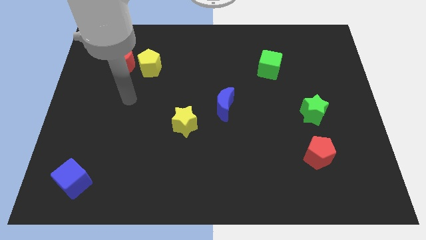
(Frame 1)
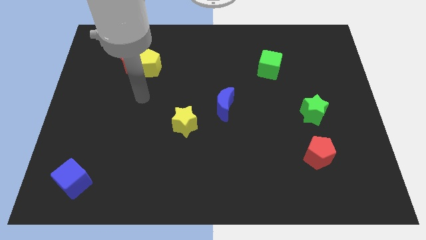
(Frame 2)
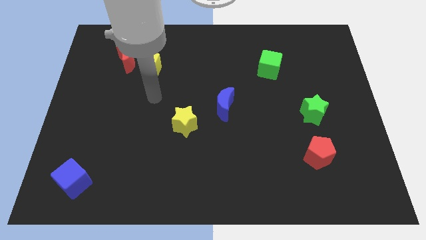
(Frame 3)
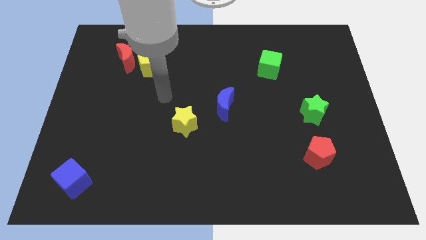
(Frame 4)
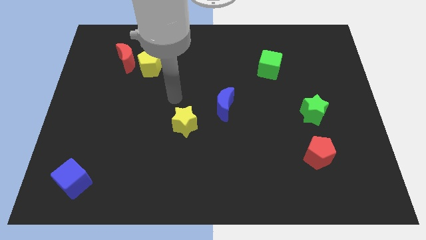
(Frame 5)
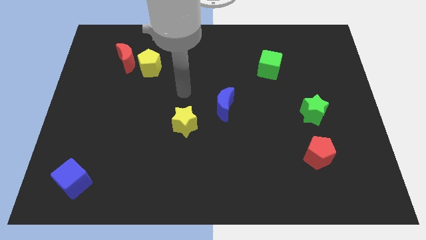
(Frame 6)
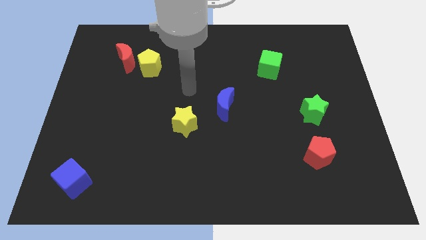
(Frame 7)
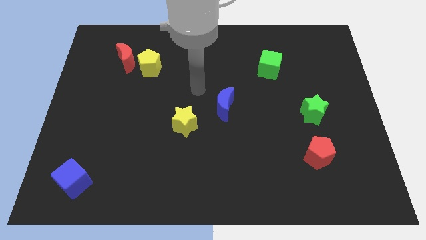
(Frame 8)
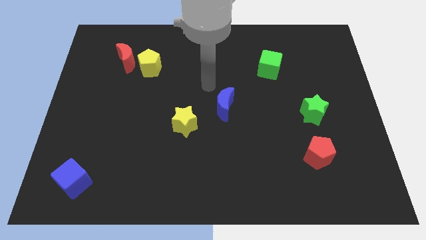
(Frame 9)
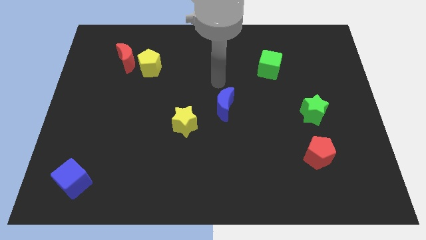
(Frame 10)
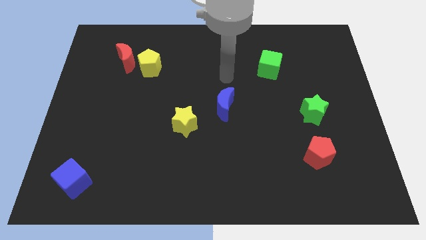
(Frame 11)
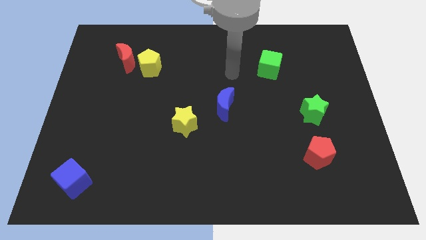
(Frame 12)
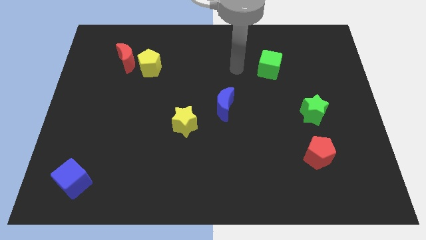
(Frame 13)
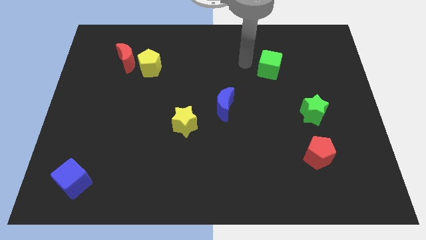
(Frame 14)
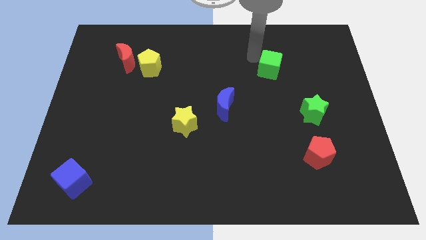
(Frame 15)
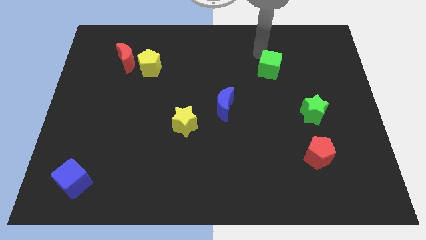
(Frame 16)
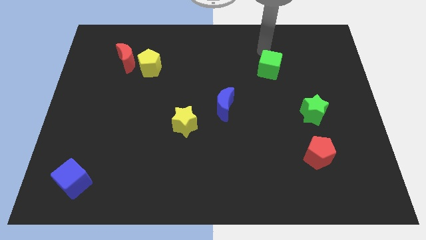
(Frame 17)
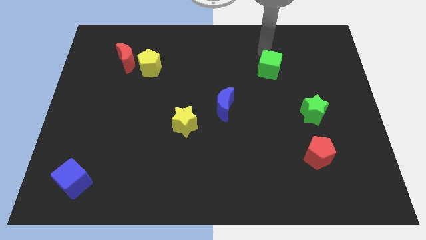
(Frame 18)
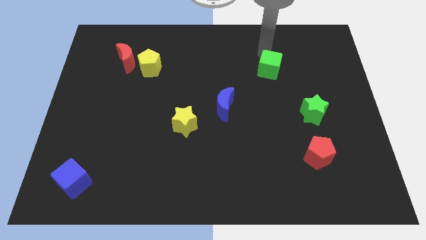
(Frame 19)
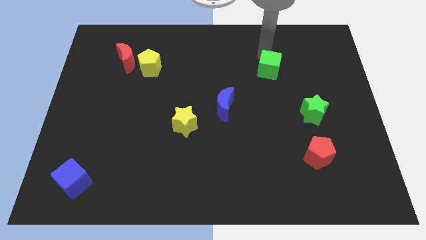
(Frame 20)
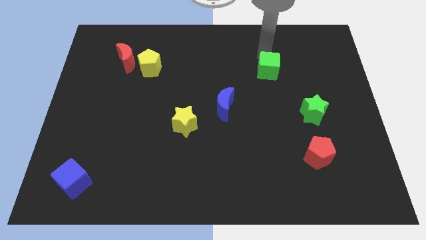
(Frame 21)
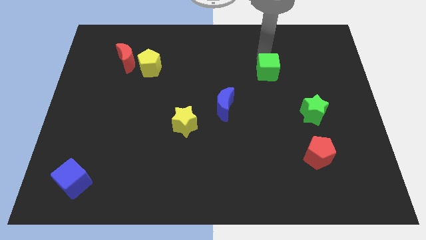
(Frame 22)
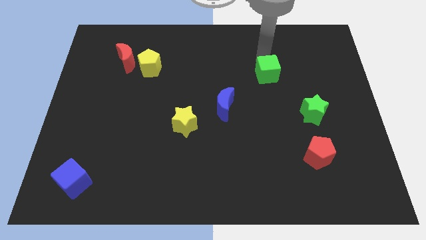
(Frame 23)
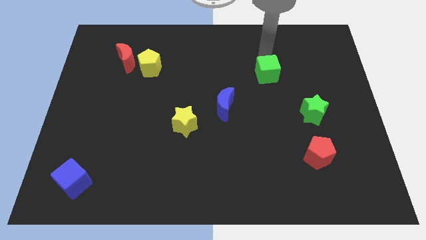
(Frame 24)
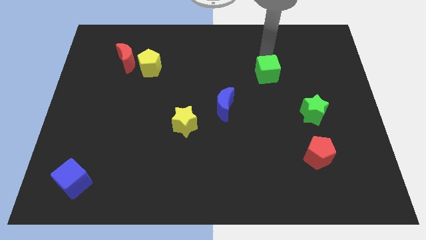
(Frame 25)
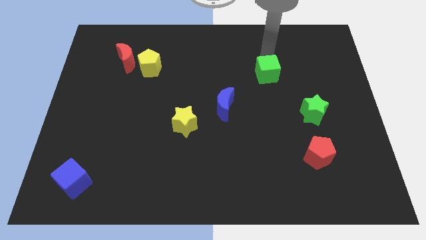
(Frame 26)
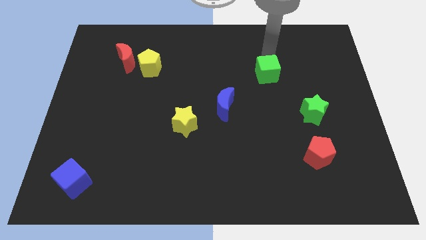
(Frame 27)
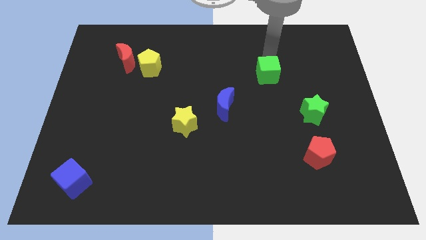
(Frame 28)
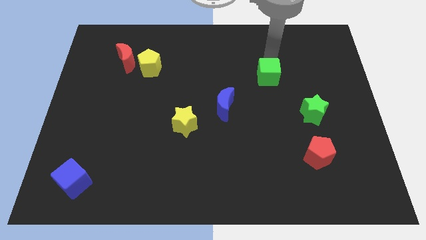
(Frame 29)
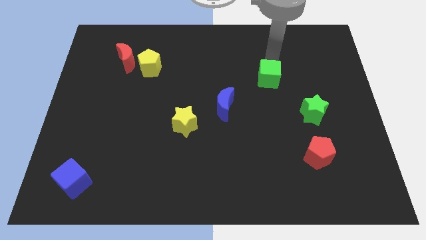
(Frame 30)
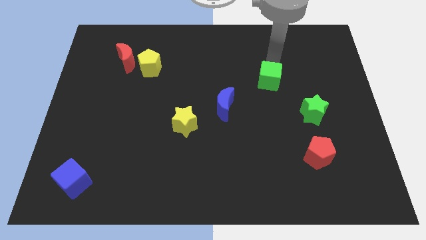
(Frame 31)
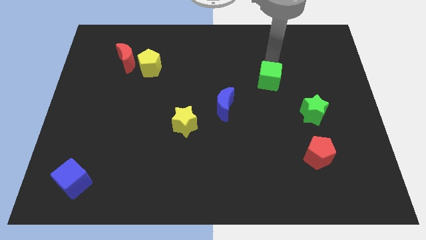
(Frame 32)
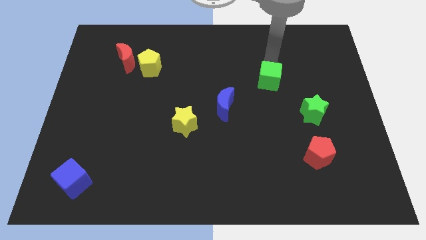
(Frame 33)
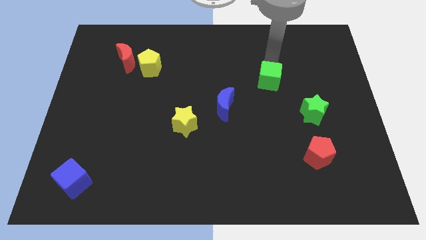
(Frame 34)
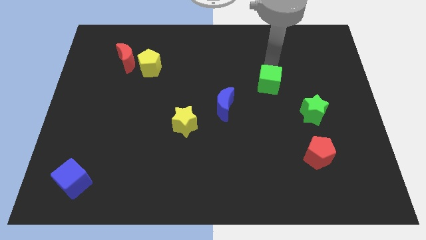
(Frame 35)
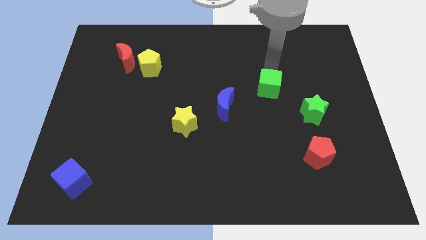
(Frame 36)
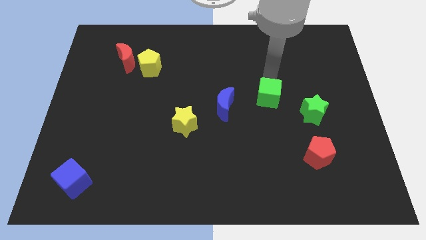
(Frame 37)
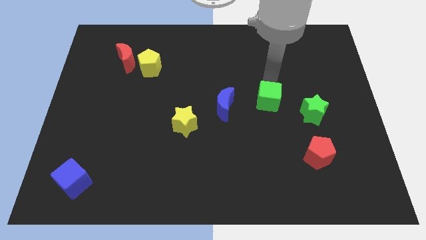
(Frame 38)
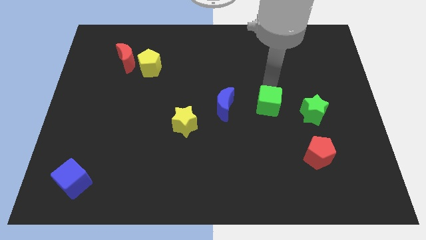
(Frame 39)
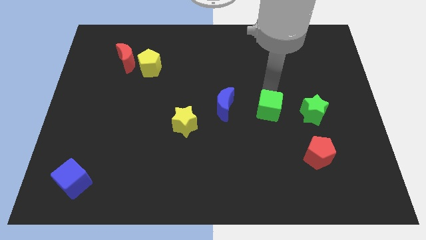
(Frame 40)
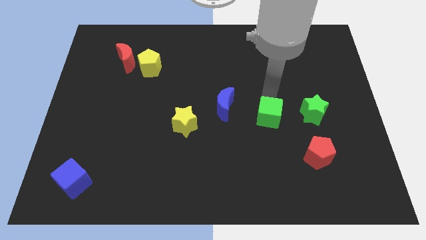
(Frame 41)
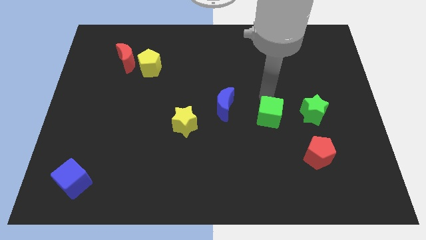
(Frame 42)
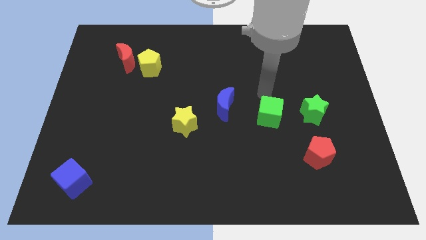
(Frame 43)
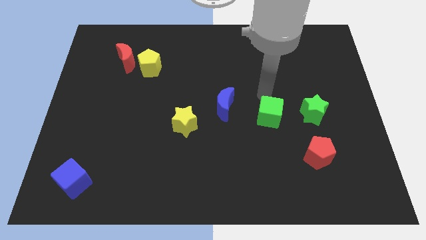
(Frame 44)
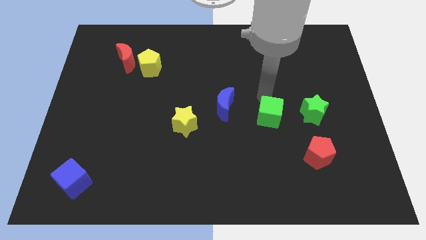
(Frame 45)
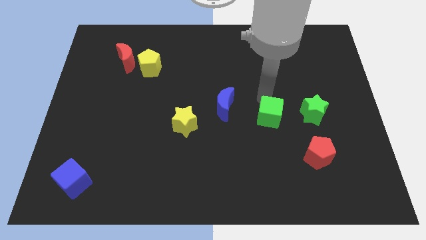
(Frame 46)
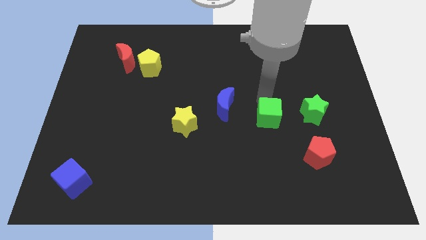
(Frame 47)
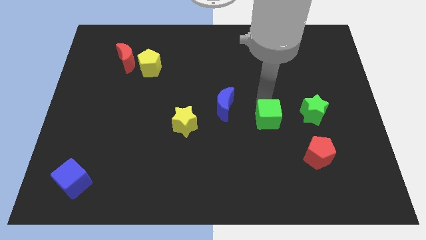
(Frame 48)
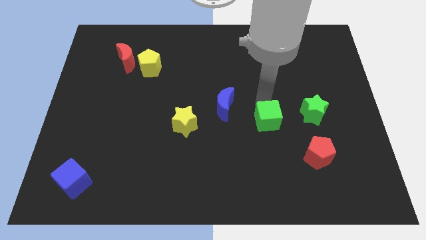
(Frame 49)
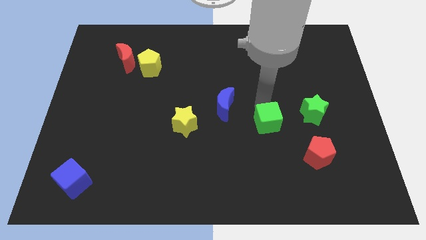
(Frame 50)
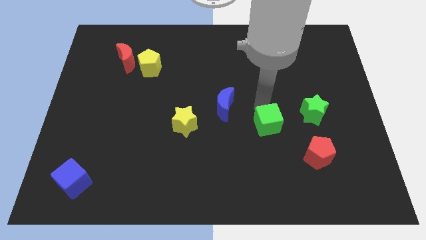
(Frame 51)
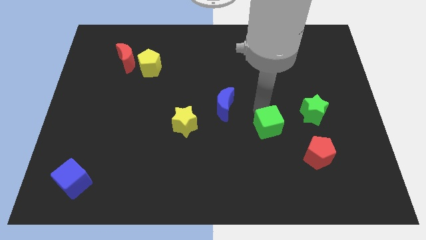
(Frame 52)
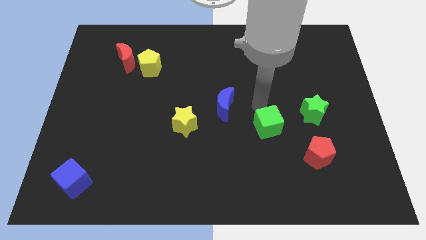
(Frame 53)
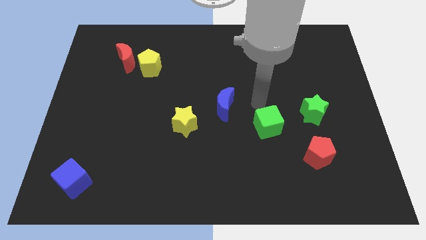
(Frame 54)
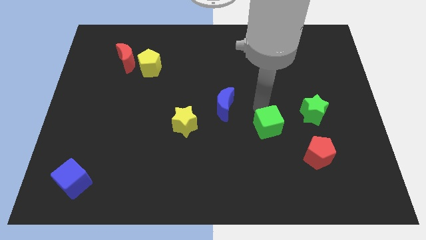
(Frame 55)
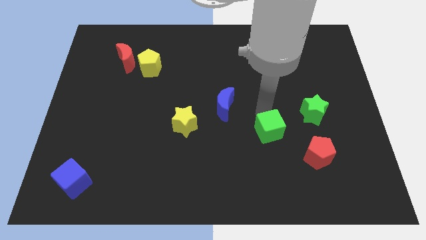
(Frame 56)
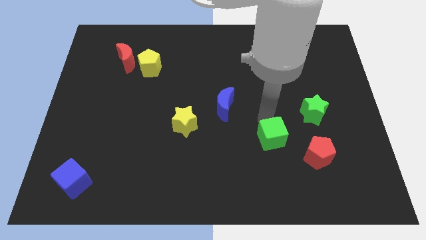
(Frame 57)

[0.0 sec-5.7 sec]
push the green cube downwards

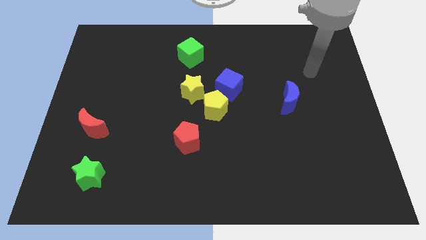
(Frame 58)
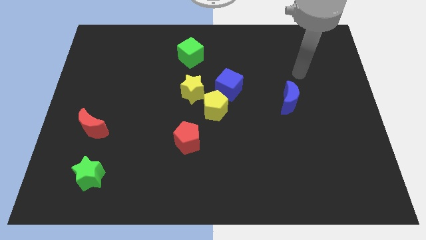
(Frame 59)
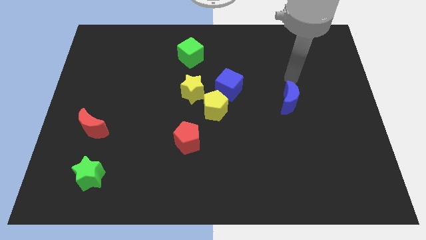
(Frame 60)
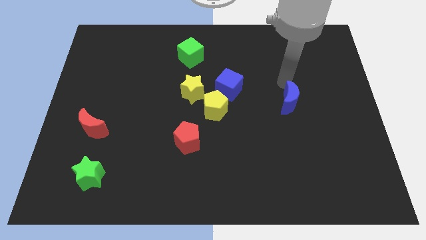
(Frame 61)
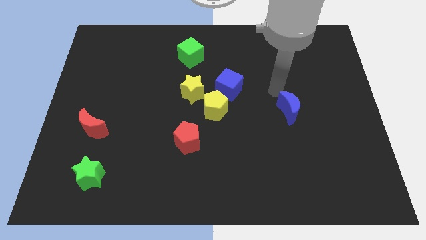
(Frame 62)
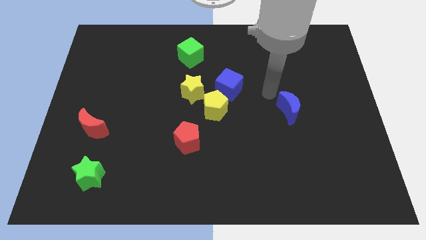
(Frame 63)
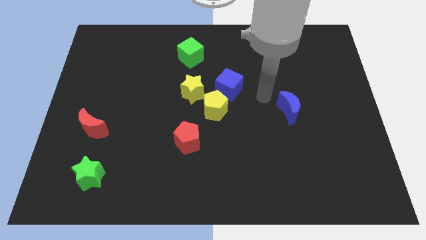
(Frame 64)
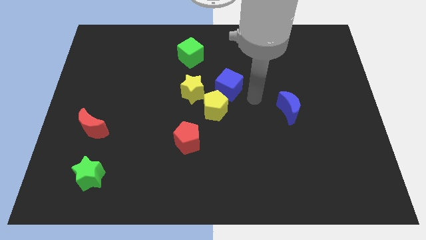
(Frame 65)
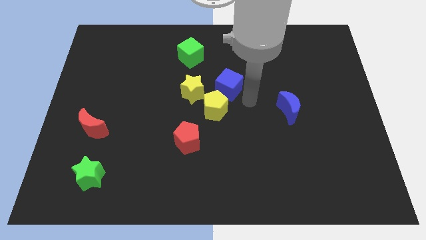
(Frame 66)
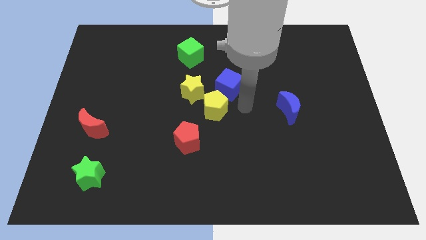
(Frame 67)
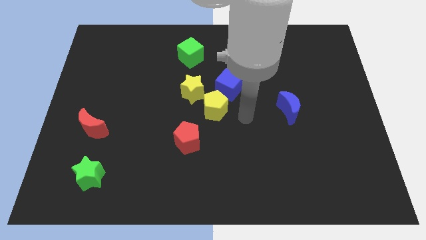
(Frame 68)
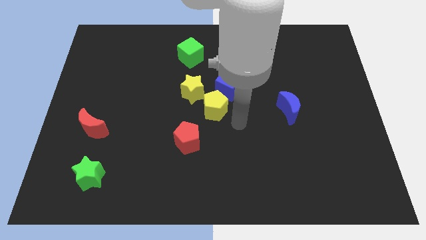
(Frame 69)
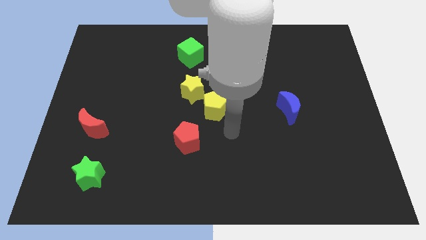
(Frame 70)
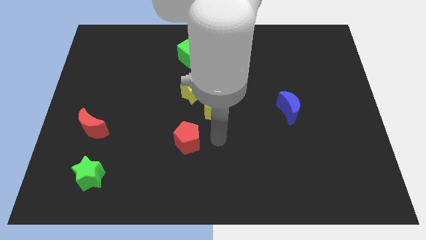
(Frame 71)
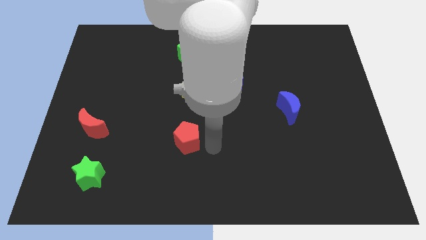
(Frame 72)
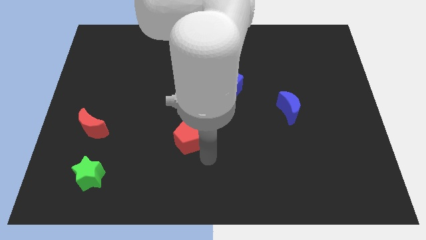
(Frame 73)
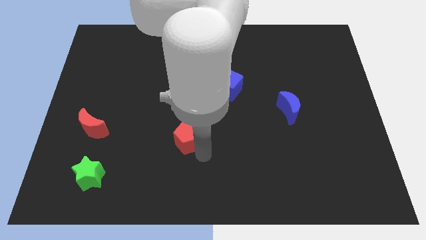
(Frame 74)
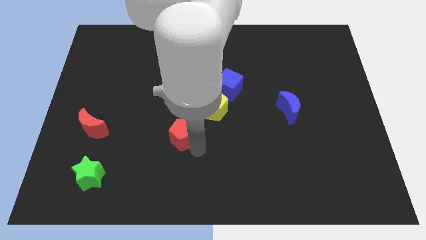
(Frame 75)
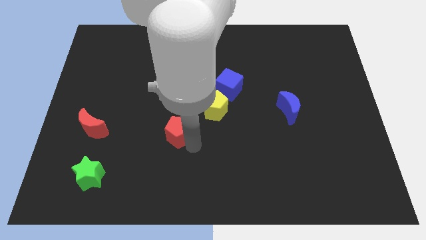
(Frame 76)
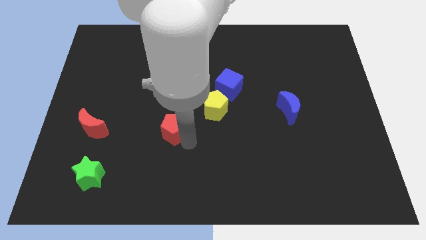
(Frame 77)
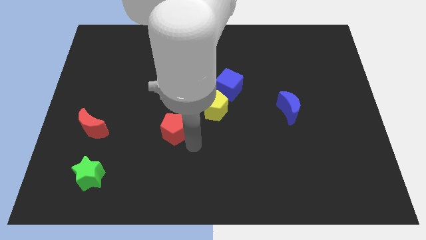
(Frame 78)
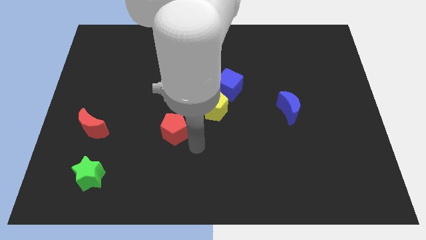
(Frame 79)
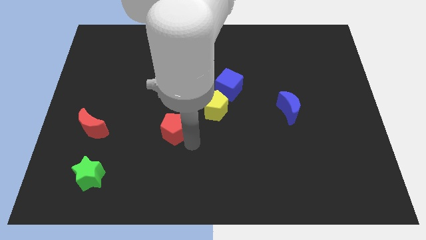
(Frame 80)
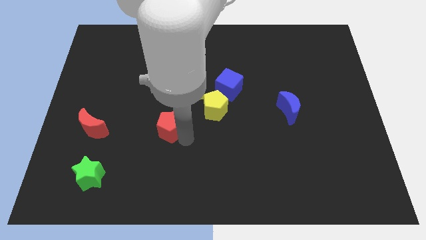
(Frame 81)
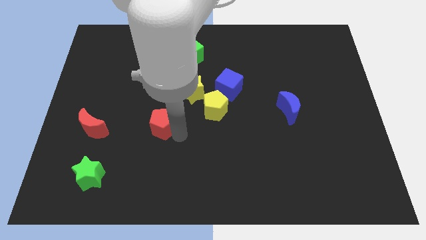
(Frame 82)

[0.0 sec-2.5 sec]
slide the red pentagon up and then left a little bit
